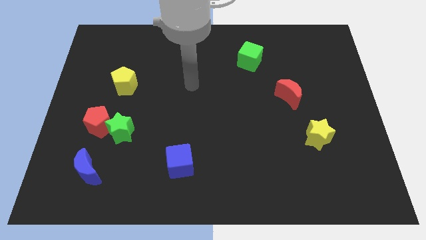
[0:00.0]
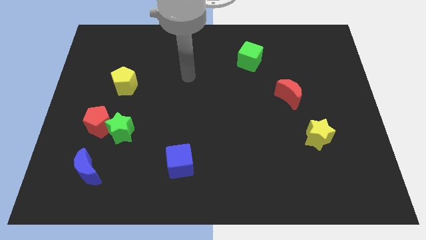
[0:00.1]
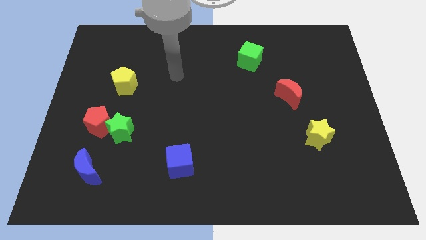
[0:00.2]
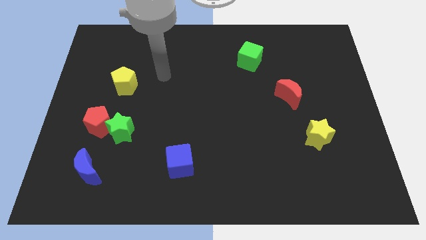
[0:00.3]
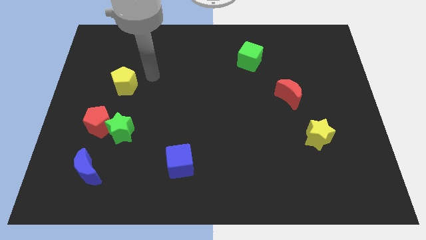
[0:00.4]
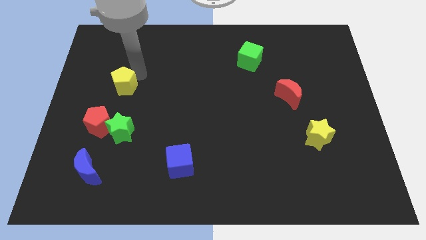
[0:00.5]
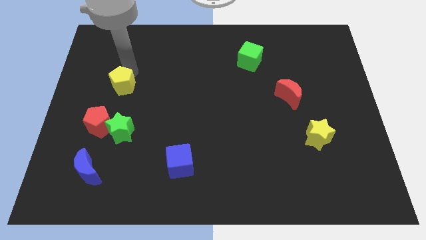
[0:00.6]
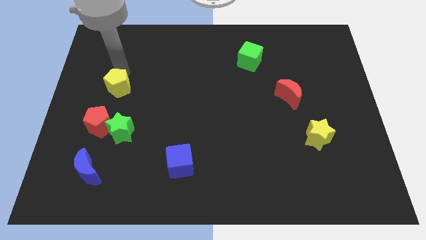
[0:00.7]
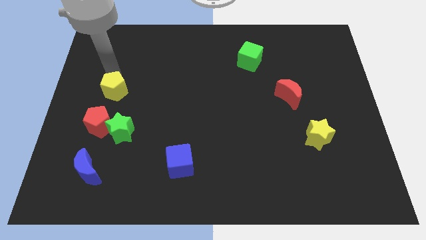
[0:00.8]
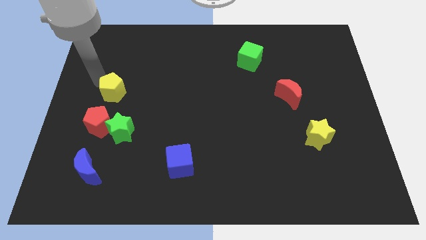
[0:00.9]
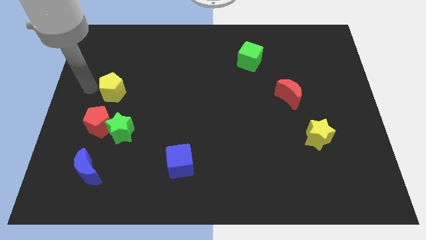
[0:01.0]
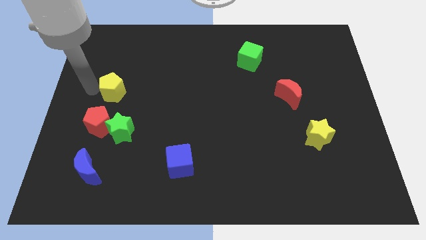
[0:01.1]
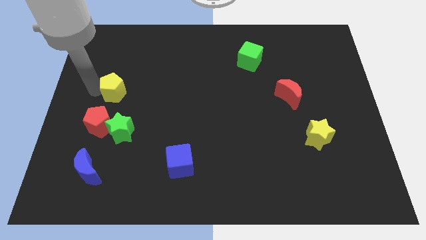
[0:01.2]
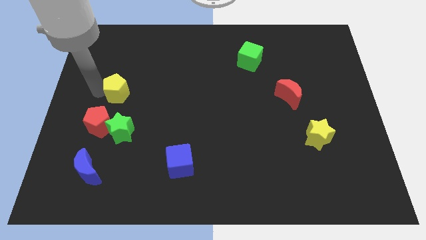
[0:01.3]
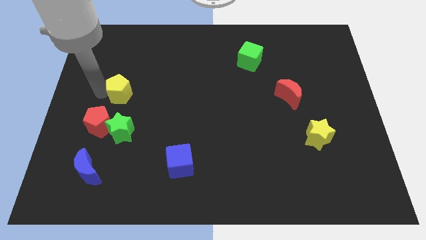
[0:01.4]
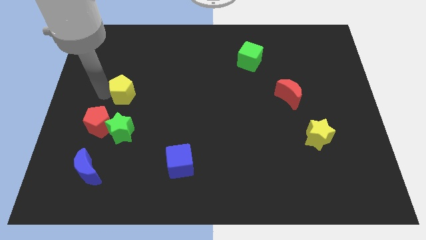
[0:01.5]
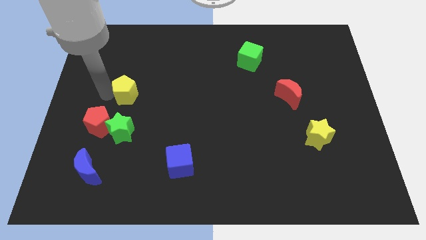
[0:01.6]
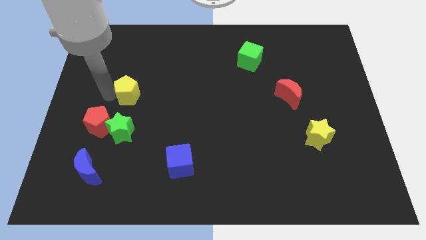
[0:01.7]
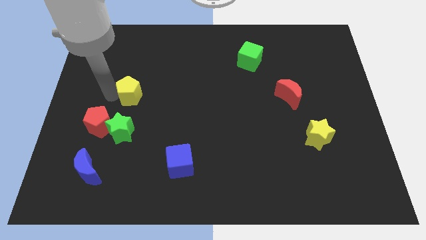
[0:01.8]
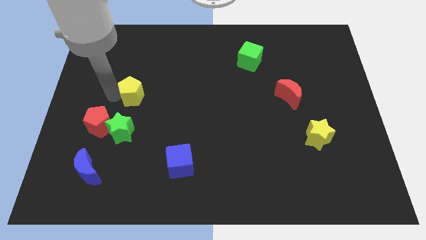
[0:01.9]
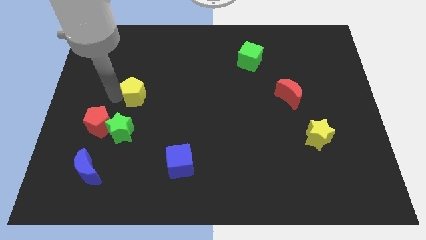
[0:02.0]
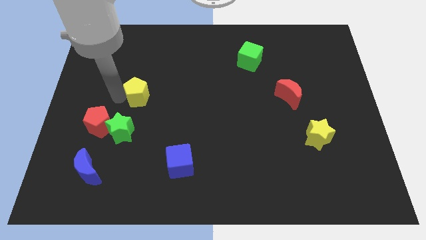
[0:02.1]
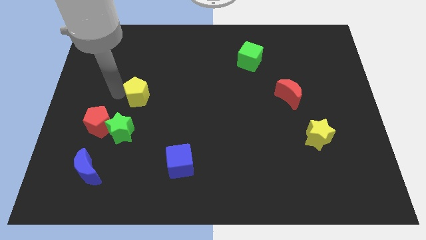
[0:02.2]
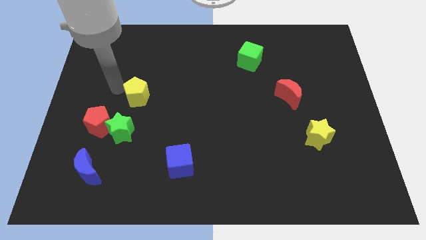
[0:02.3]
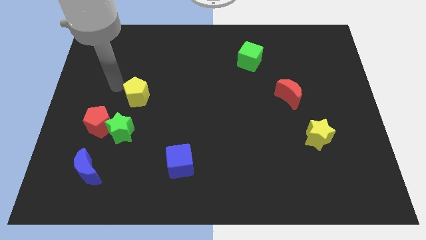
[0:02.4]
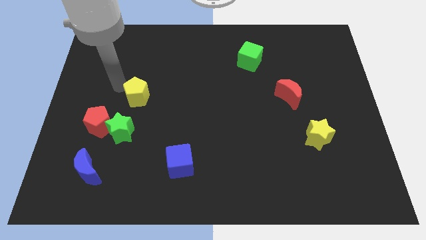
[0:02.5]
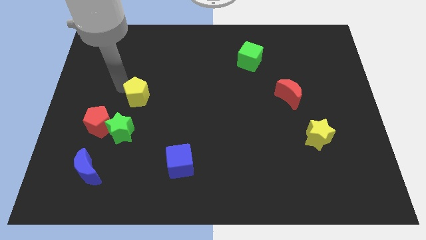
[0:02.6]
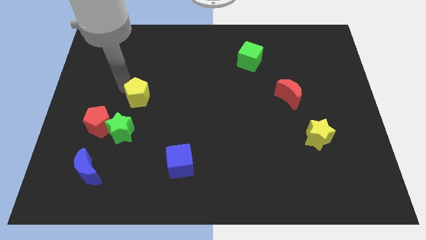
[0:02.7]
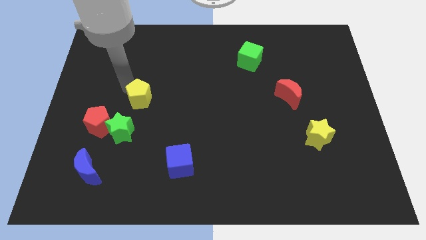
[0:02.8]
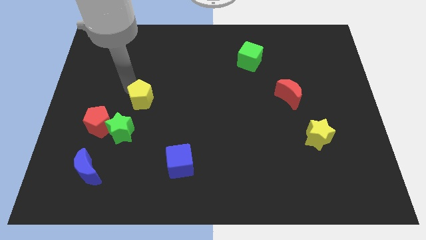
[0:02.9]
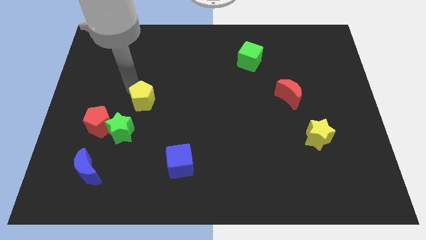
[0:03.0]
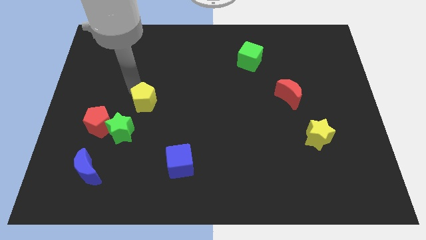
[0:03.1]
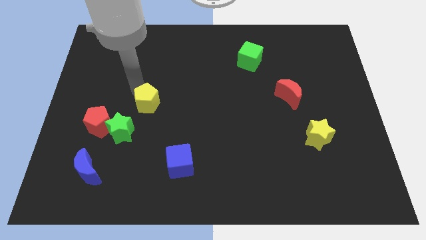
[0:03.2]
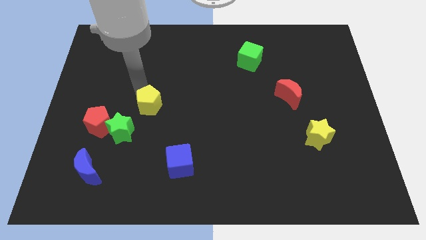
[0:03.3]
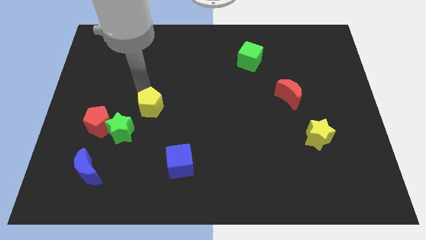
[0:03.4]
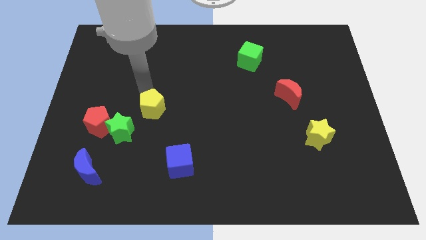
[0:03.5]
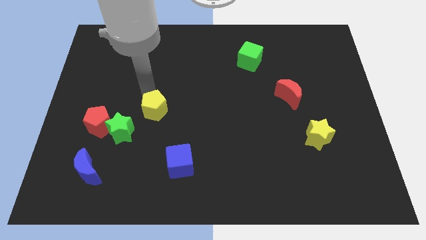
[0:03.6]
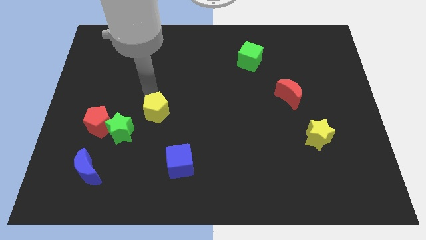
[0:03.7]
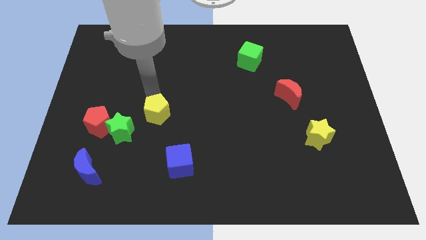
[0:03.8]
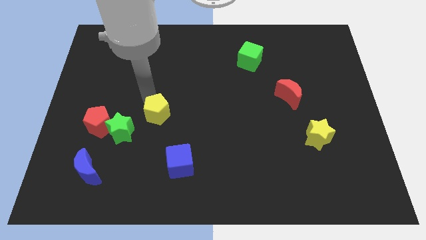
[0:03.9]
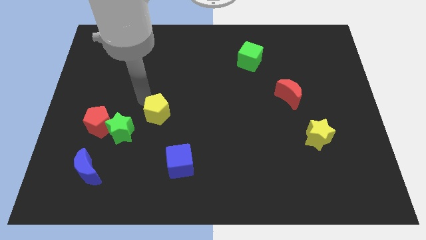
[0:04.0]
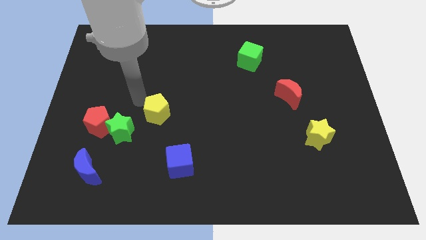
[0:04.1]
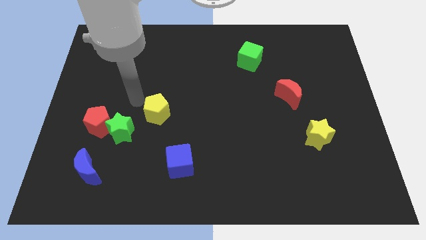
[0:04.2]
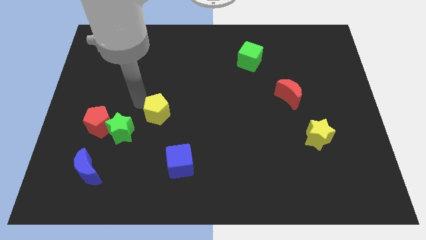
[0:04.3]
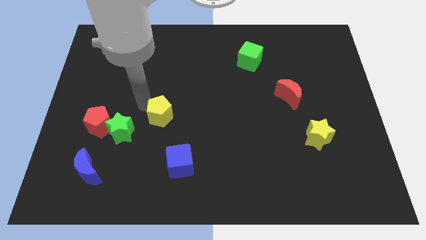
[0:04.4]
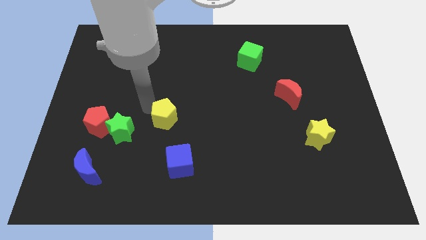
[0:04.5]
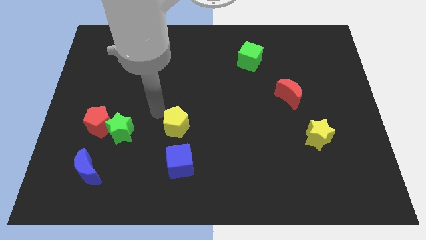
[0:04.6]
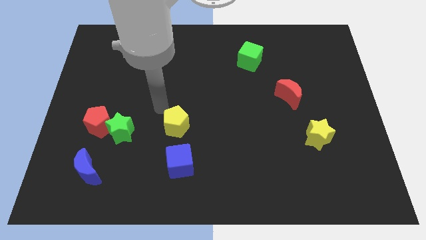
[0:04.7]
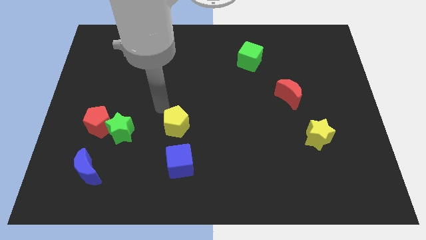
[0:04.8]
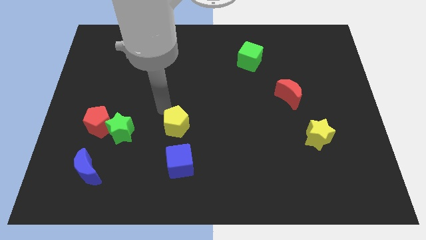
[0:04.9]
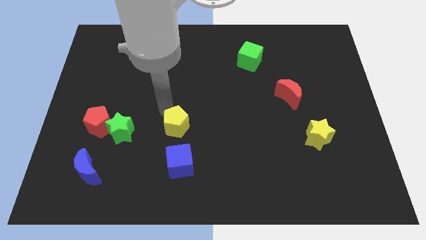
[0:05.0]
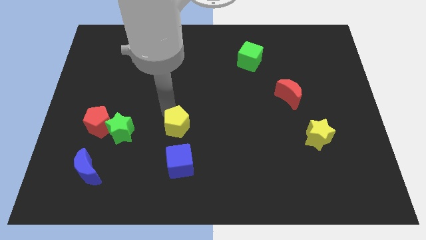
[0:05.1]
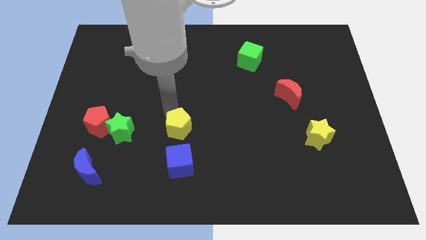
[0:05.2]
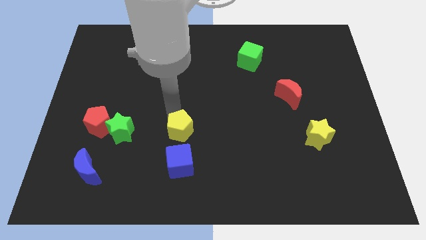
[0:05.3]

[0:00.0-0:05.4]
push the yellow pentagon diagonally downwards and right

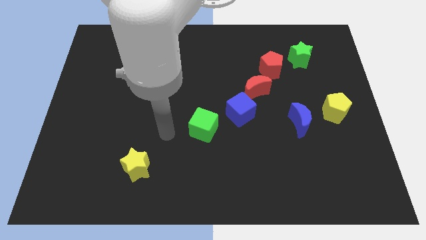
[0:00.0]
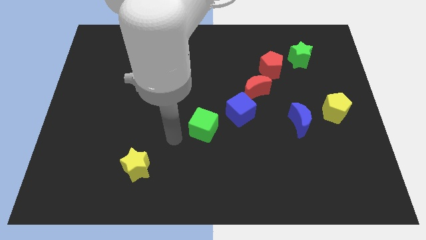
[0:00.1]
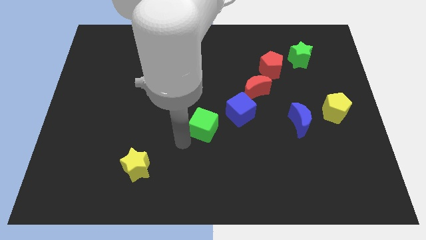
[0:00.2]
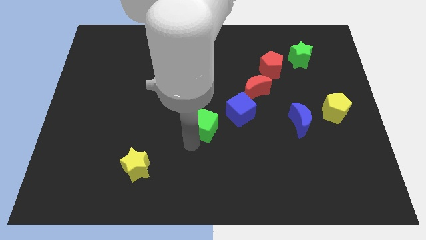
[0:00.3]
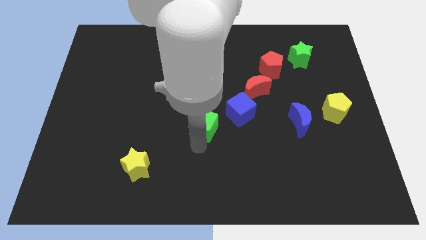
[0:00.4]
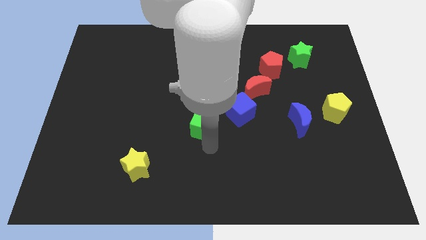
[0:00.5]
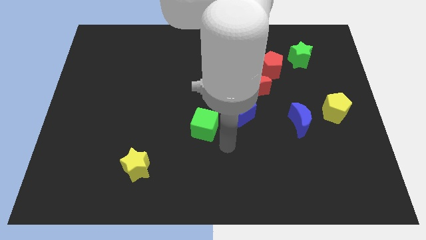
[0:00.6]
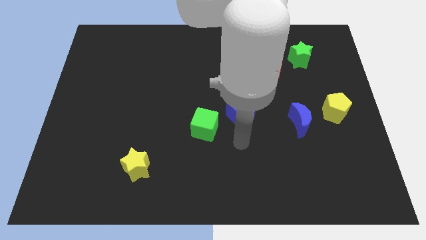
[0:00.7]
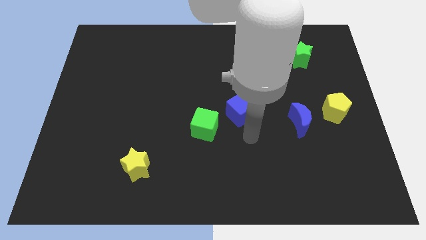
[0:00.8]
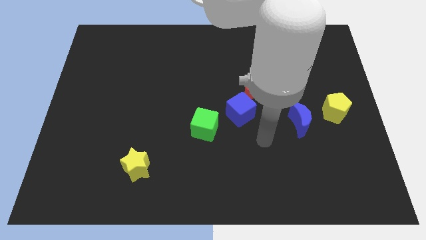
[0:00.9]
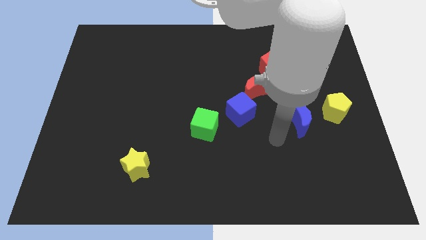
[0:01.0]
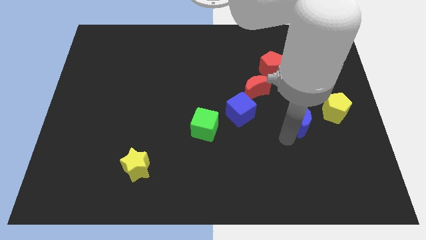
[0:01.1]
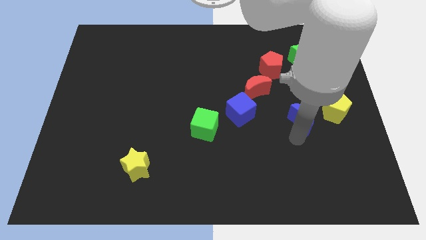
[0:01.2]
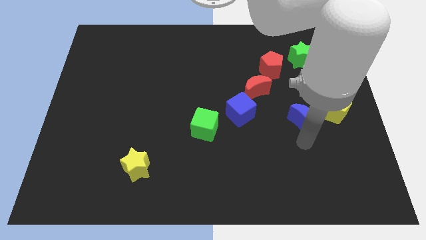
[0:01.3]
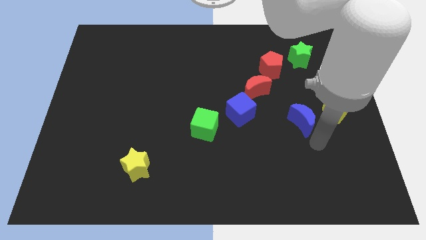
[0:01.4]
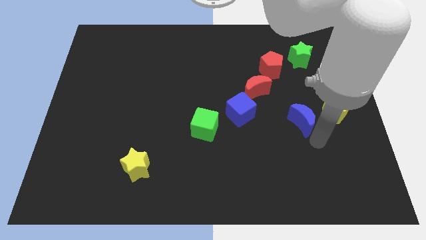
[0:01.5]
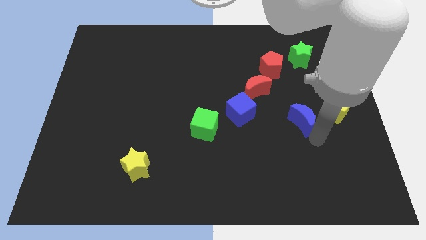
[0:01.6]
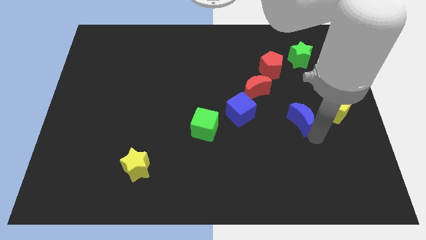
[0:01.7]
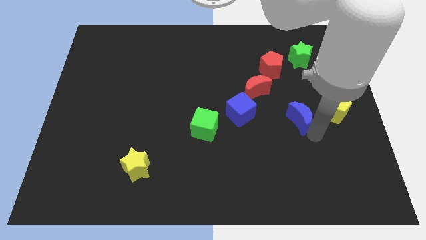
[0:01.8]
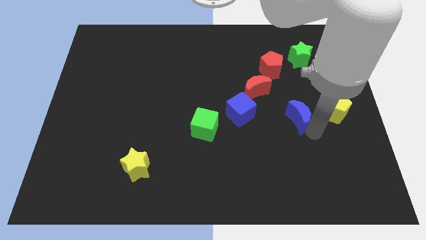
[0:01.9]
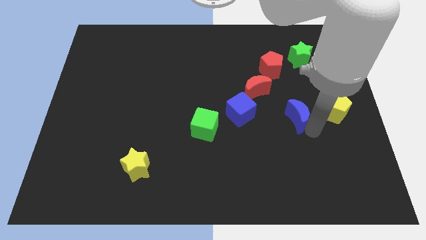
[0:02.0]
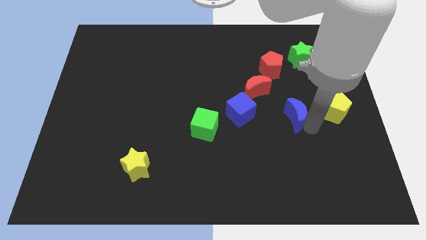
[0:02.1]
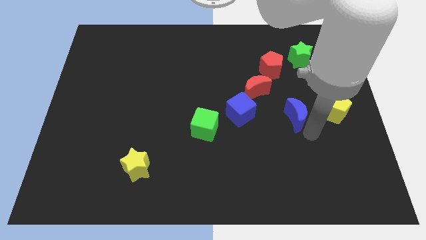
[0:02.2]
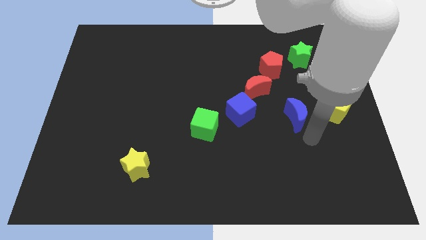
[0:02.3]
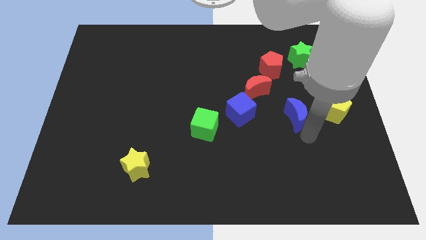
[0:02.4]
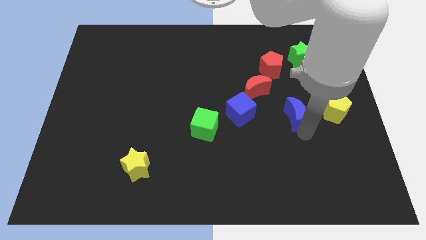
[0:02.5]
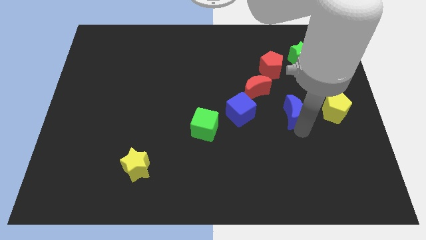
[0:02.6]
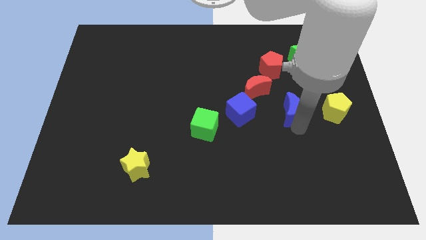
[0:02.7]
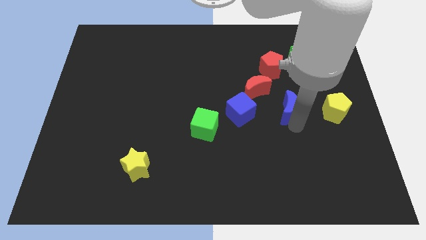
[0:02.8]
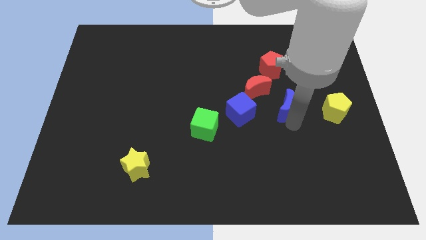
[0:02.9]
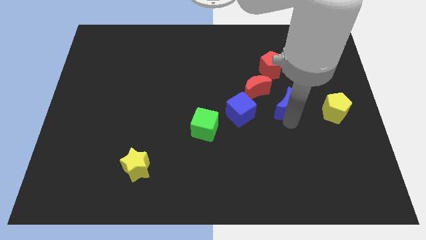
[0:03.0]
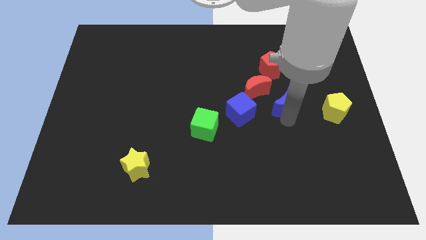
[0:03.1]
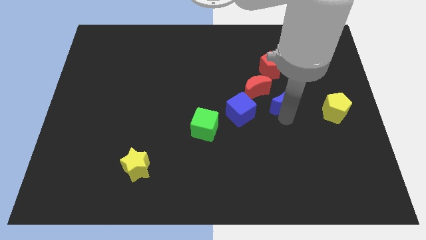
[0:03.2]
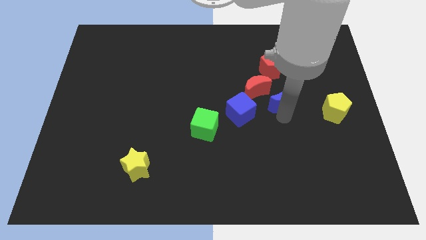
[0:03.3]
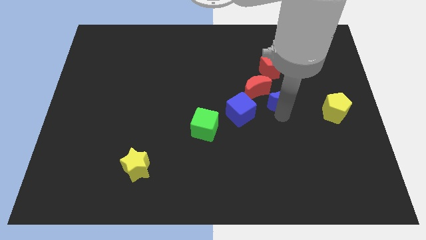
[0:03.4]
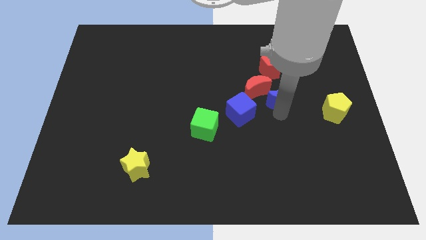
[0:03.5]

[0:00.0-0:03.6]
move the blue moon up and left diagonally a little bit
